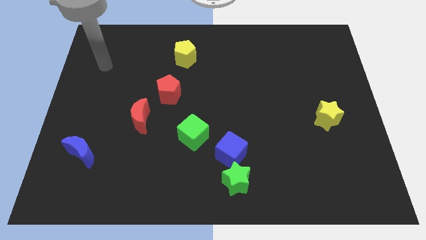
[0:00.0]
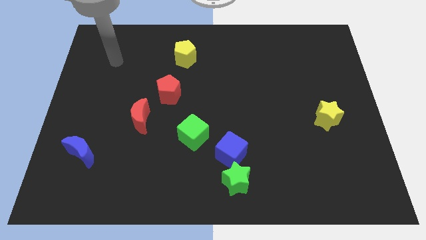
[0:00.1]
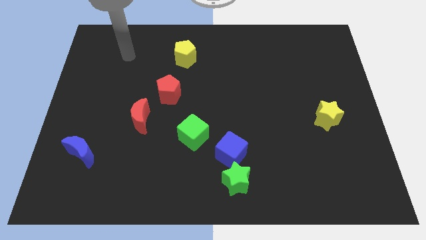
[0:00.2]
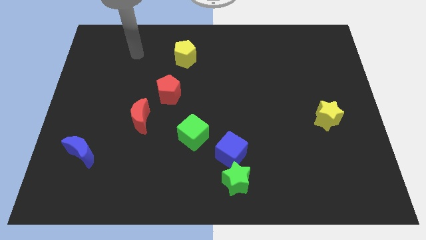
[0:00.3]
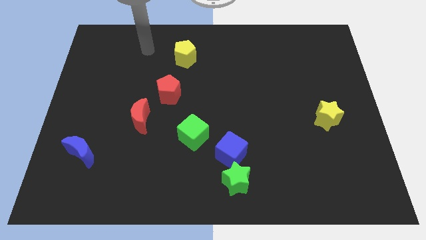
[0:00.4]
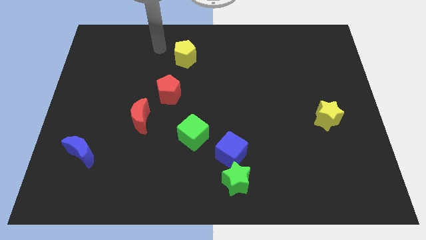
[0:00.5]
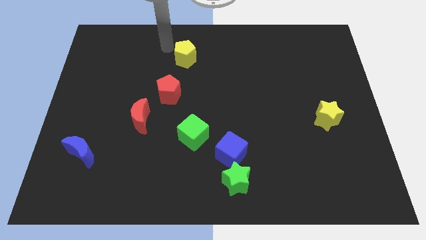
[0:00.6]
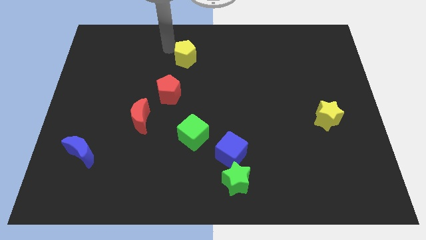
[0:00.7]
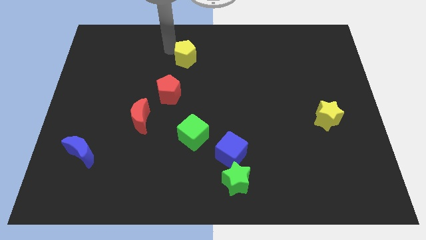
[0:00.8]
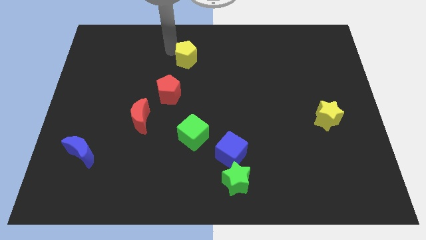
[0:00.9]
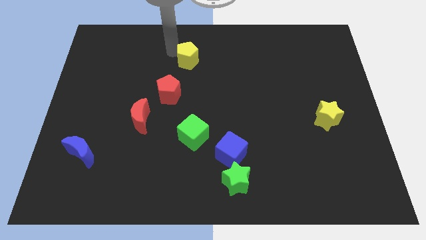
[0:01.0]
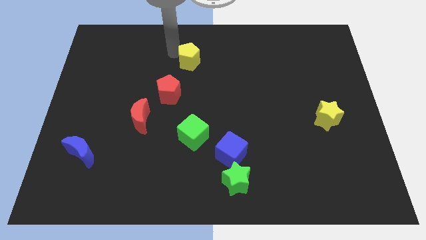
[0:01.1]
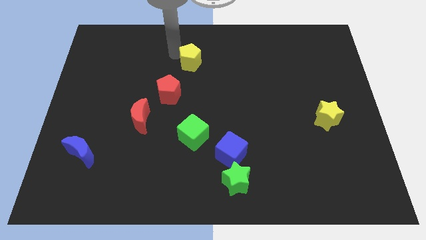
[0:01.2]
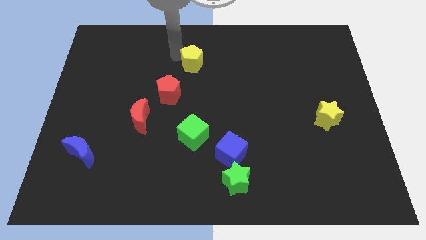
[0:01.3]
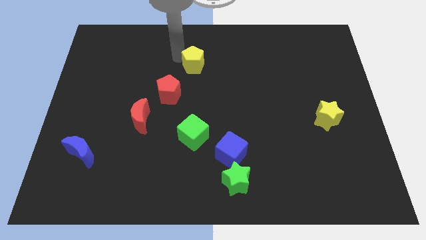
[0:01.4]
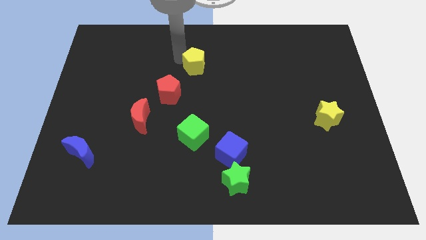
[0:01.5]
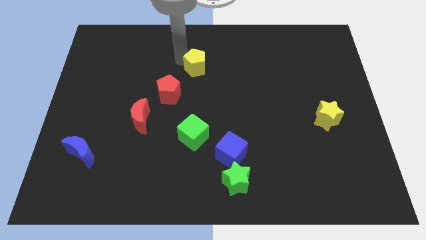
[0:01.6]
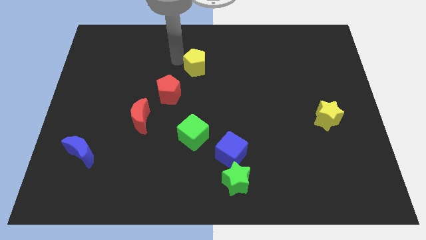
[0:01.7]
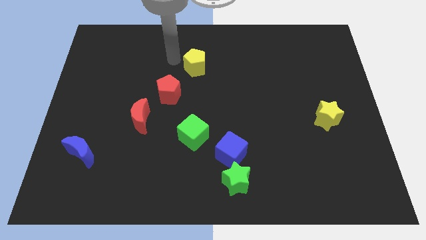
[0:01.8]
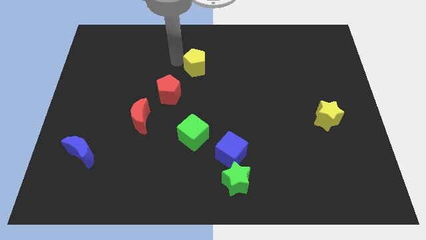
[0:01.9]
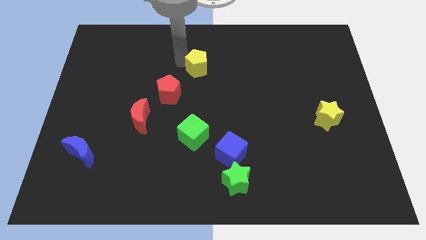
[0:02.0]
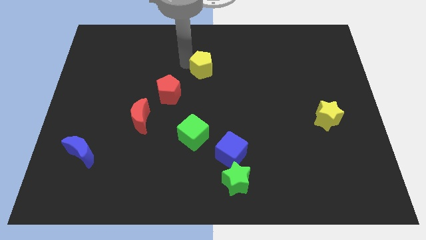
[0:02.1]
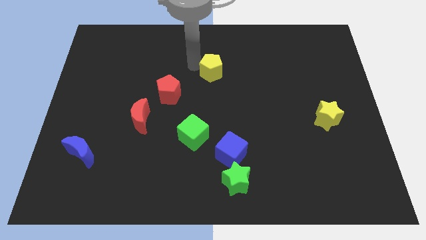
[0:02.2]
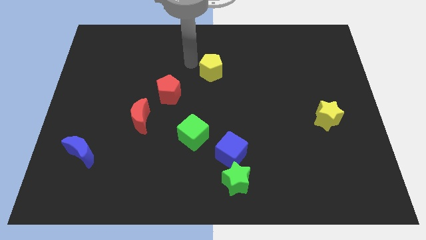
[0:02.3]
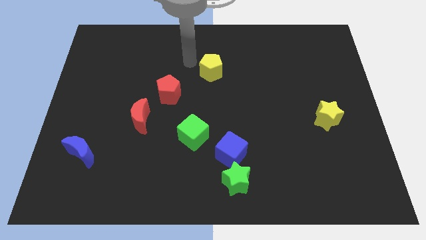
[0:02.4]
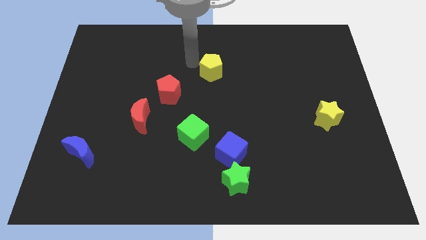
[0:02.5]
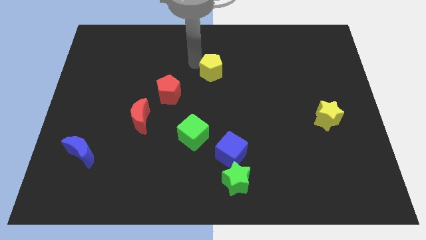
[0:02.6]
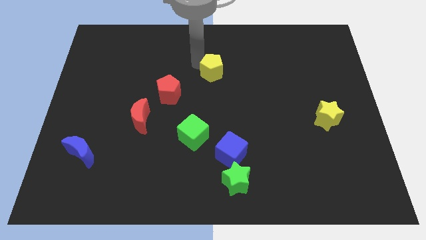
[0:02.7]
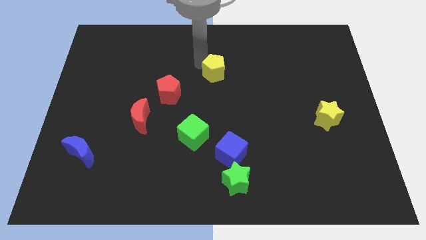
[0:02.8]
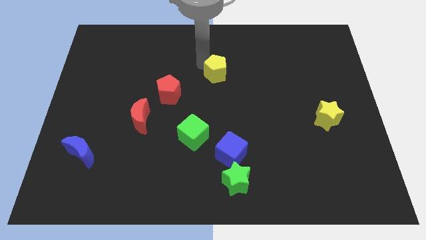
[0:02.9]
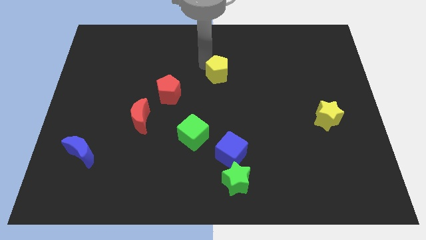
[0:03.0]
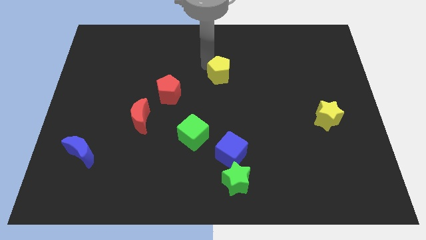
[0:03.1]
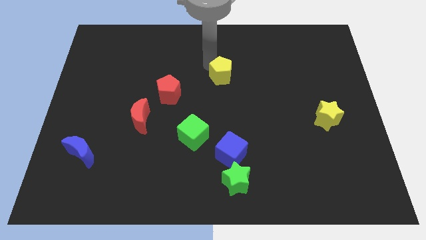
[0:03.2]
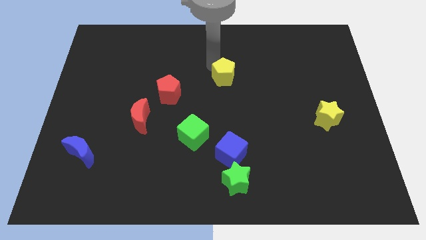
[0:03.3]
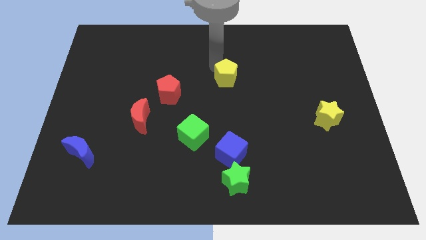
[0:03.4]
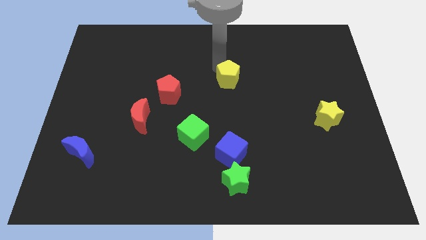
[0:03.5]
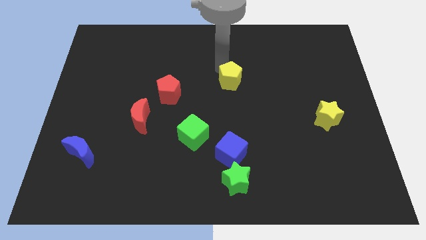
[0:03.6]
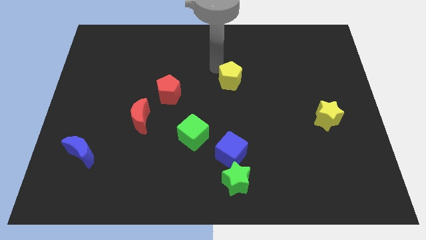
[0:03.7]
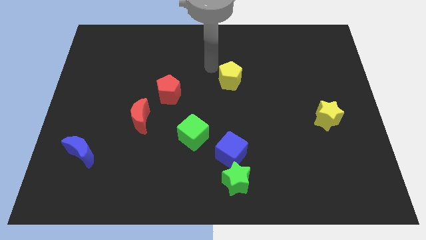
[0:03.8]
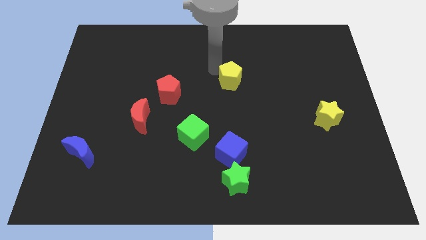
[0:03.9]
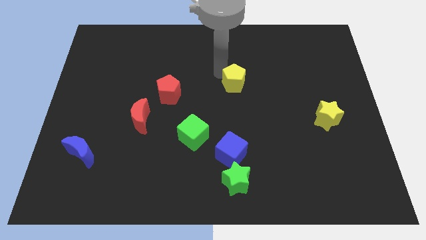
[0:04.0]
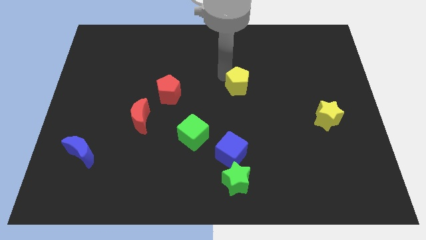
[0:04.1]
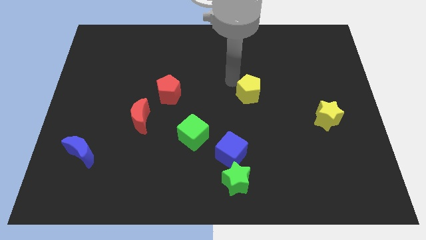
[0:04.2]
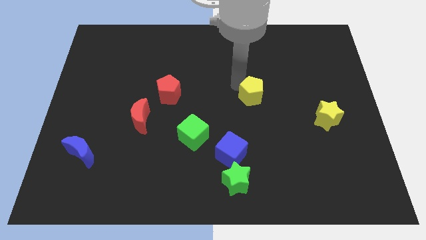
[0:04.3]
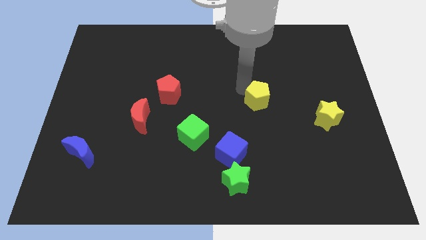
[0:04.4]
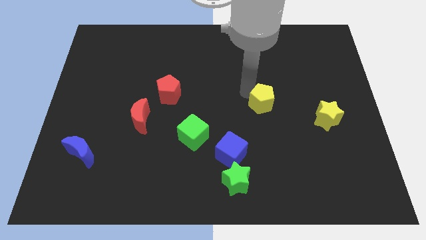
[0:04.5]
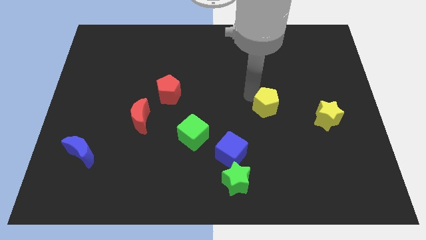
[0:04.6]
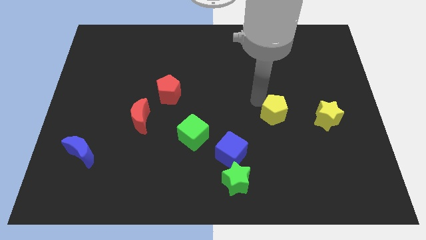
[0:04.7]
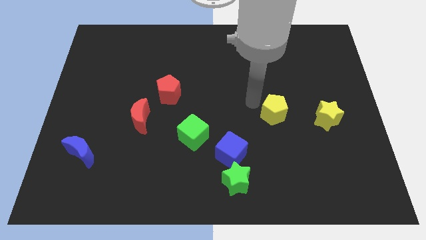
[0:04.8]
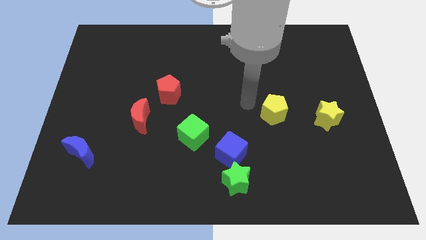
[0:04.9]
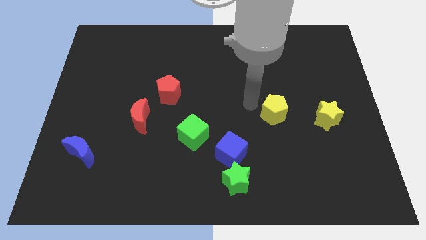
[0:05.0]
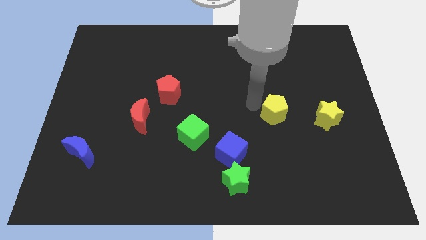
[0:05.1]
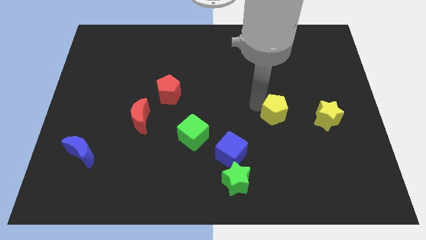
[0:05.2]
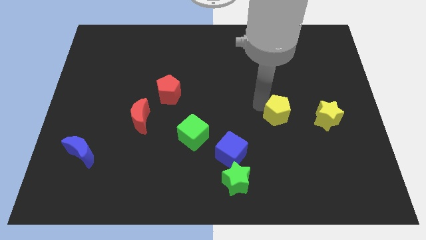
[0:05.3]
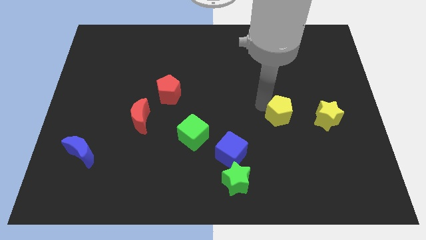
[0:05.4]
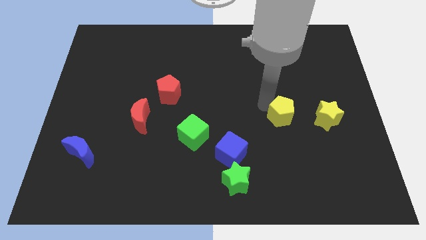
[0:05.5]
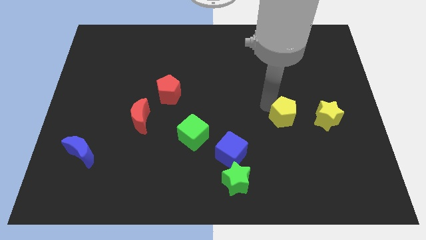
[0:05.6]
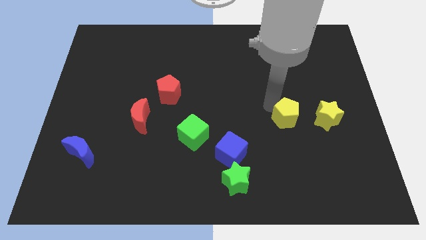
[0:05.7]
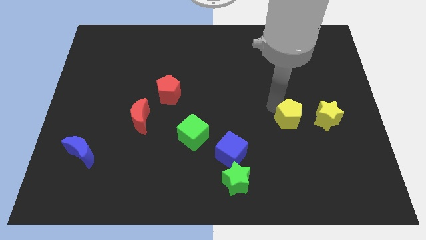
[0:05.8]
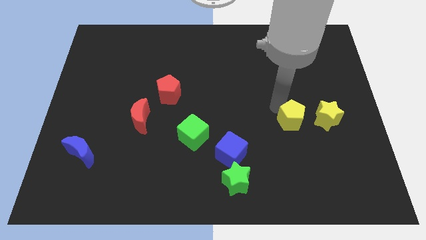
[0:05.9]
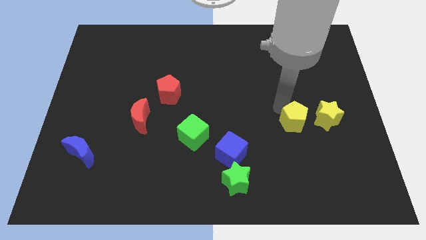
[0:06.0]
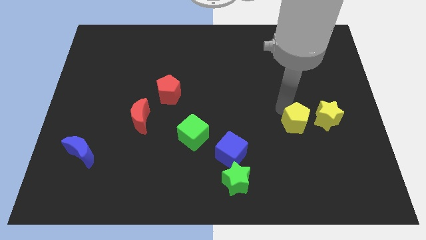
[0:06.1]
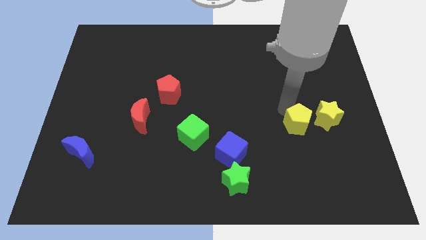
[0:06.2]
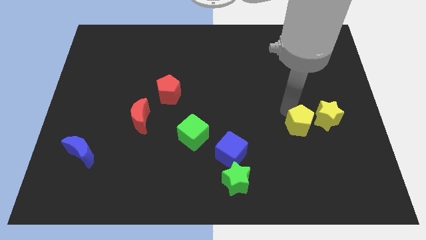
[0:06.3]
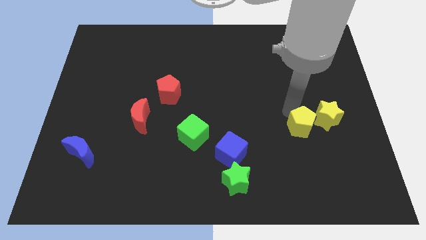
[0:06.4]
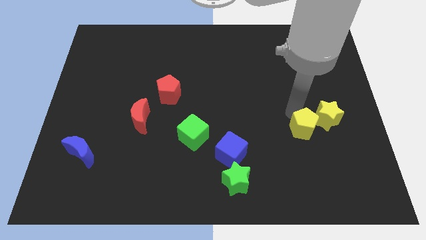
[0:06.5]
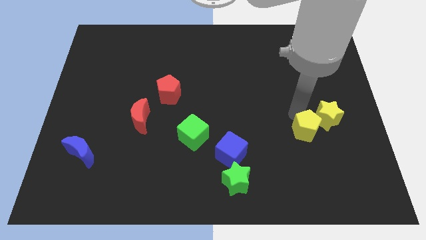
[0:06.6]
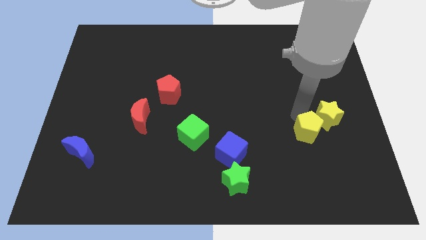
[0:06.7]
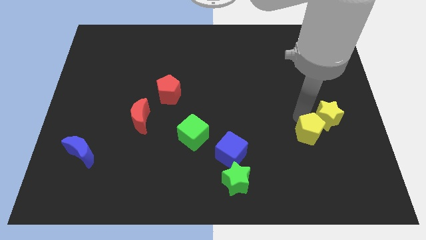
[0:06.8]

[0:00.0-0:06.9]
put the yellow pentagon below the yellow star
